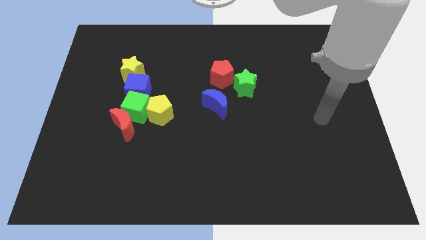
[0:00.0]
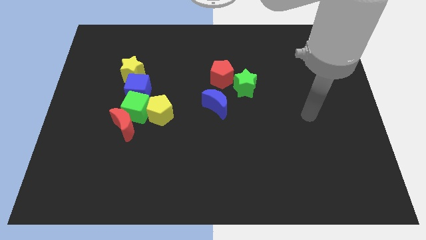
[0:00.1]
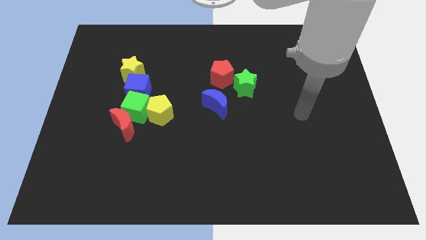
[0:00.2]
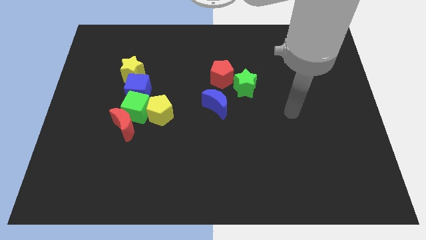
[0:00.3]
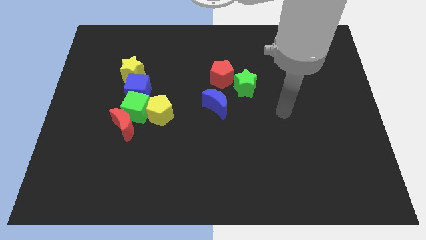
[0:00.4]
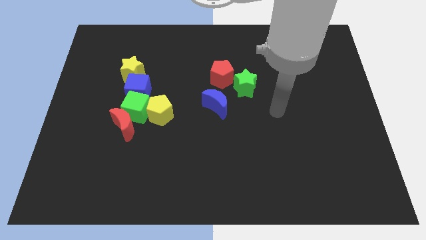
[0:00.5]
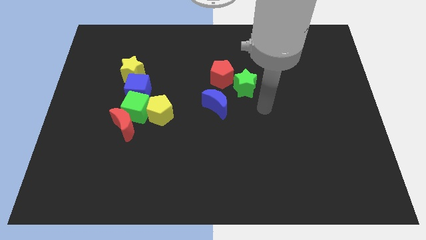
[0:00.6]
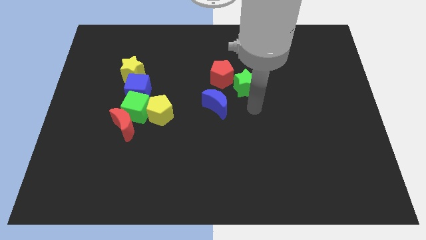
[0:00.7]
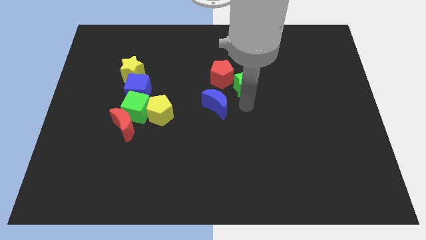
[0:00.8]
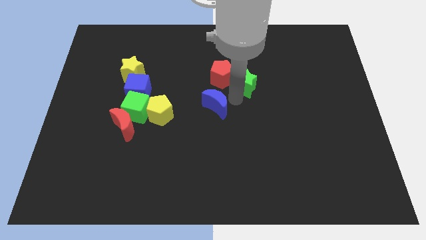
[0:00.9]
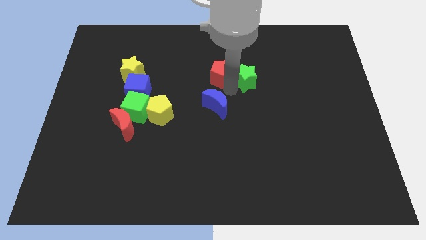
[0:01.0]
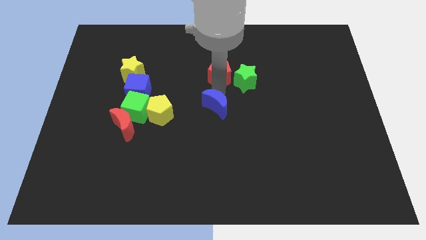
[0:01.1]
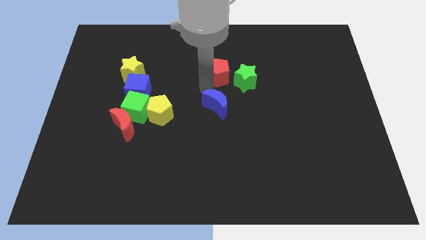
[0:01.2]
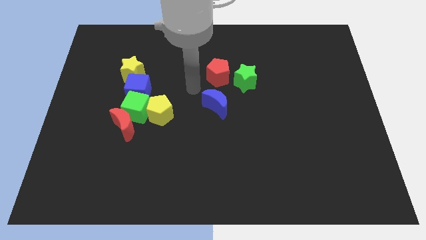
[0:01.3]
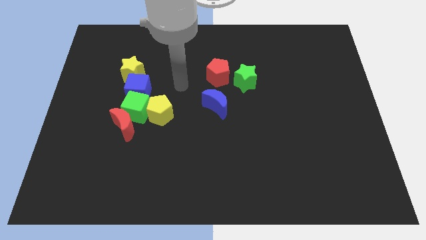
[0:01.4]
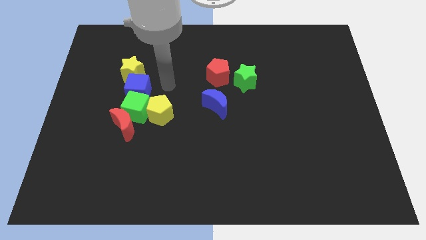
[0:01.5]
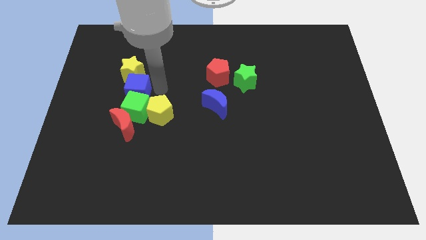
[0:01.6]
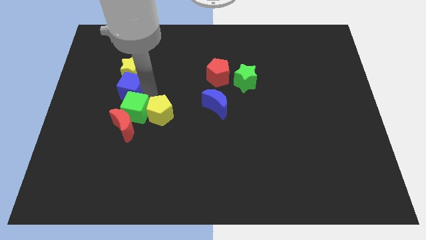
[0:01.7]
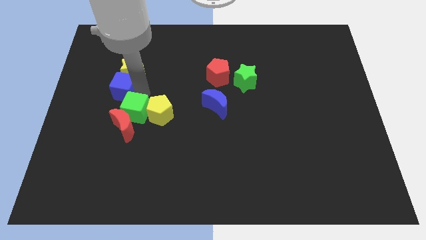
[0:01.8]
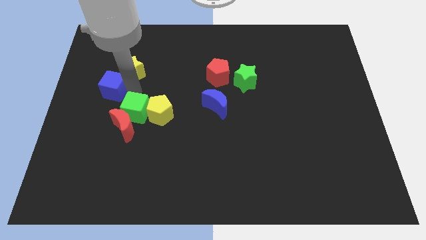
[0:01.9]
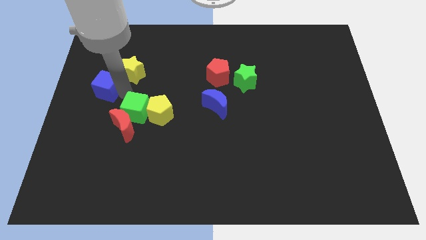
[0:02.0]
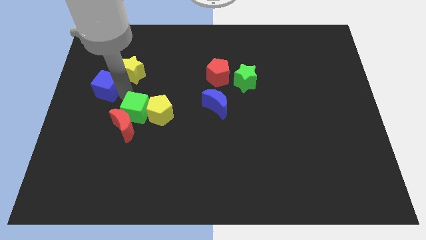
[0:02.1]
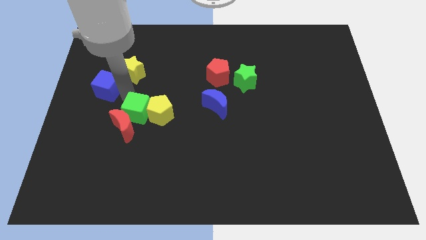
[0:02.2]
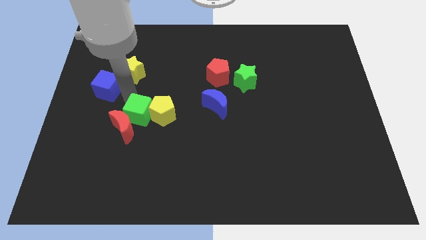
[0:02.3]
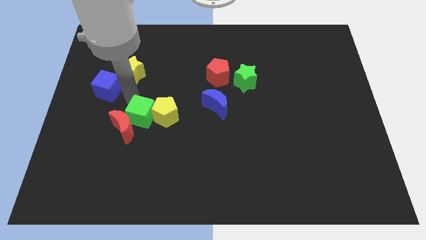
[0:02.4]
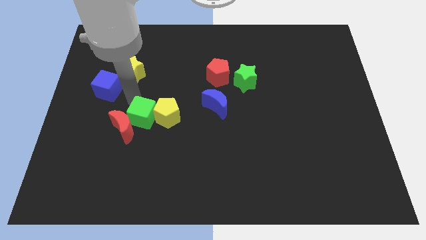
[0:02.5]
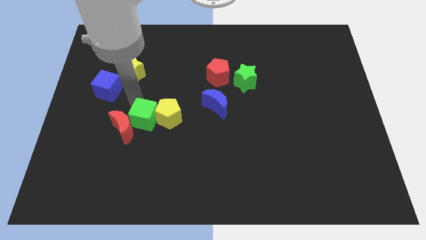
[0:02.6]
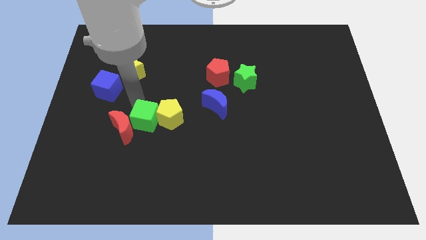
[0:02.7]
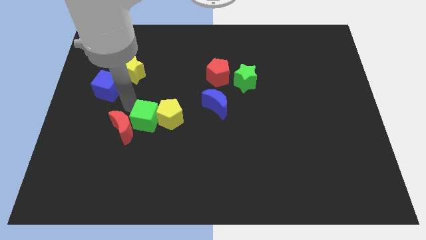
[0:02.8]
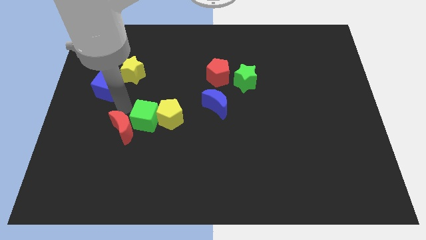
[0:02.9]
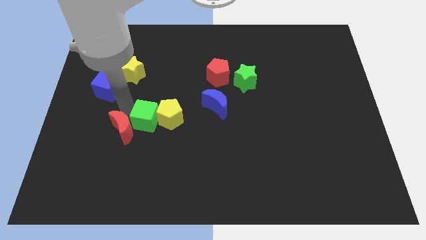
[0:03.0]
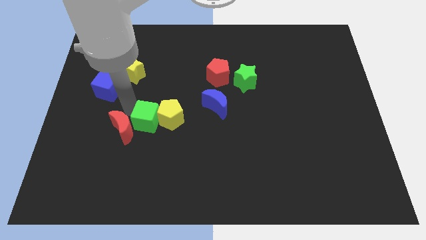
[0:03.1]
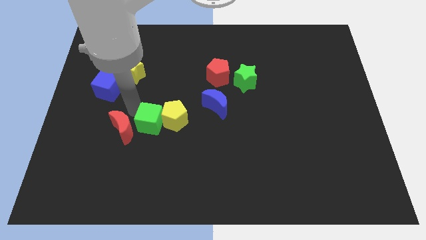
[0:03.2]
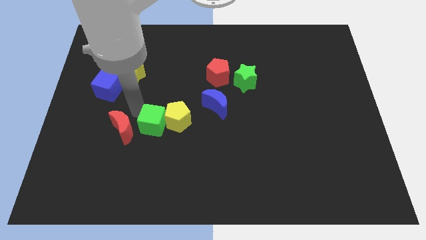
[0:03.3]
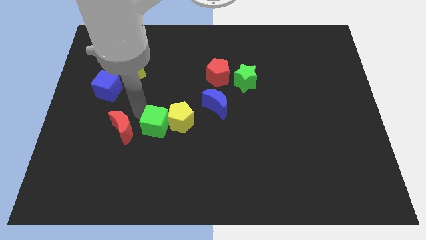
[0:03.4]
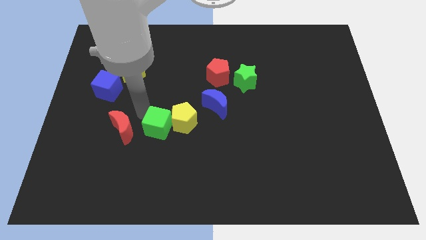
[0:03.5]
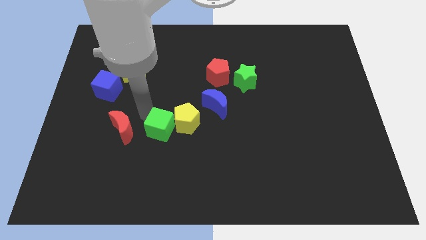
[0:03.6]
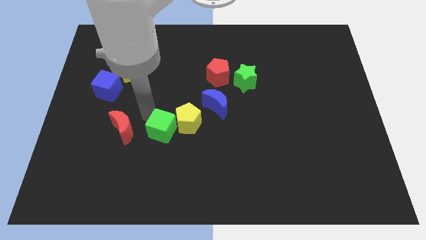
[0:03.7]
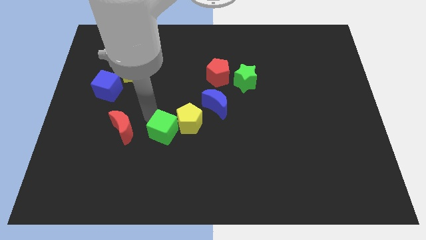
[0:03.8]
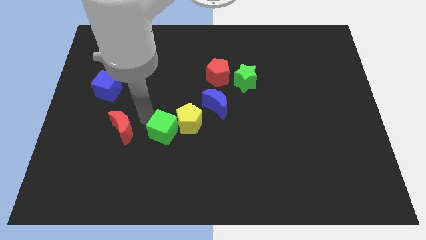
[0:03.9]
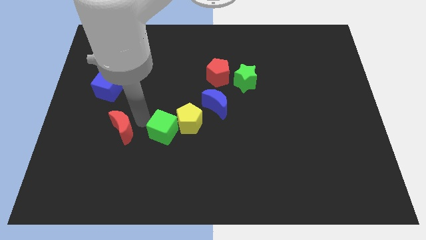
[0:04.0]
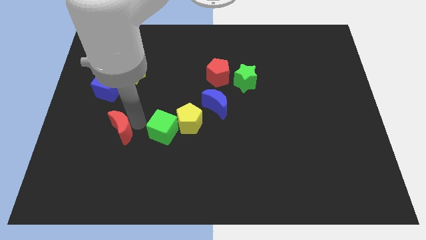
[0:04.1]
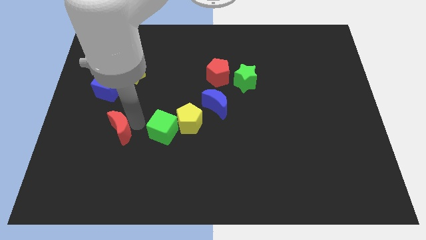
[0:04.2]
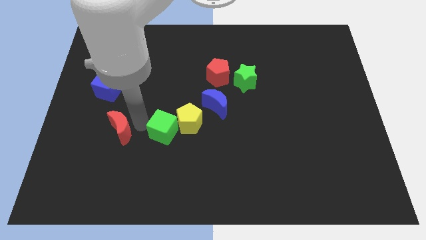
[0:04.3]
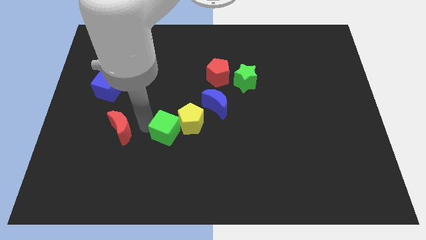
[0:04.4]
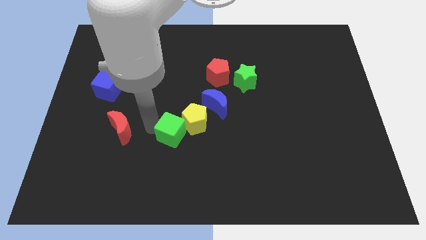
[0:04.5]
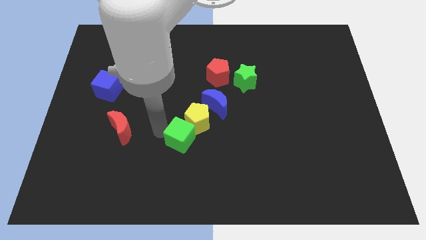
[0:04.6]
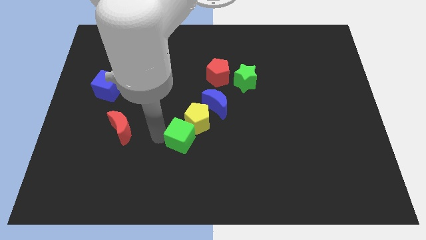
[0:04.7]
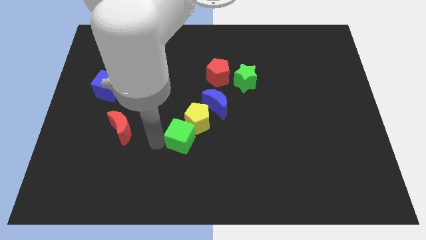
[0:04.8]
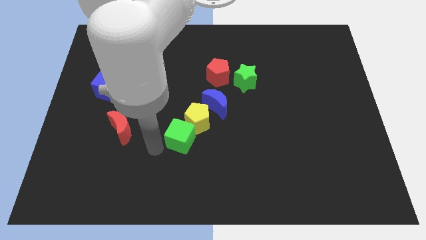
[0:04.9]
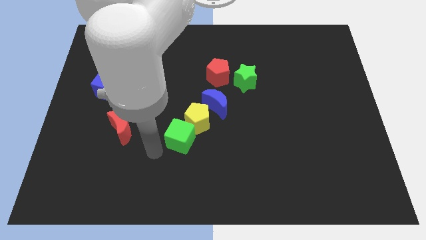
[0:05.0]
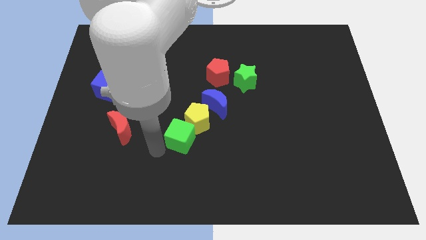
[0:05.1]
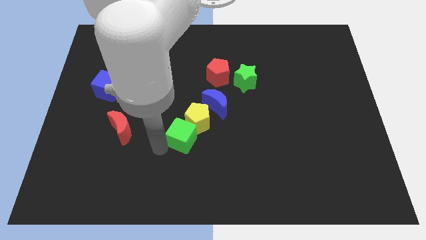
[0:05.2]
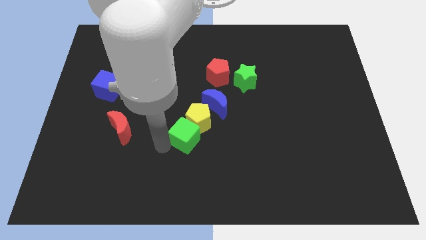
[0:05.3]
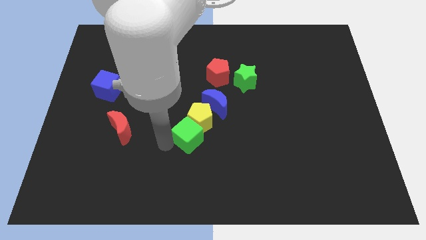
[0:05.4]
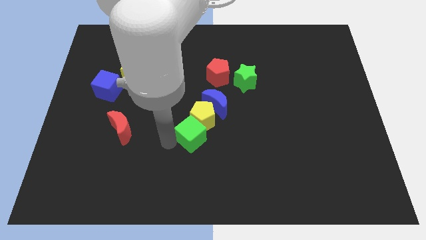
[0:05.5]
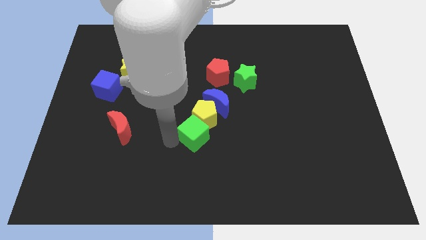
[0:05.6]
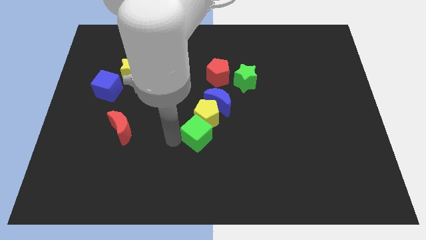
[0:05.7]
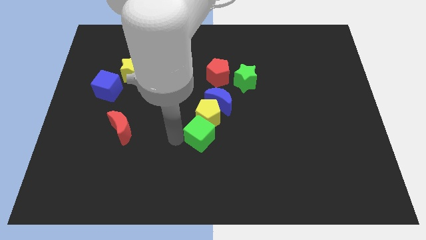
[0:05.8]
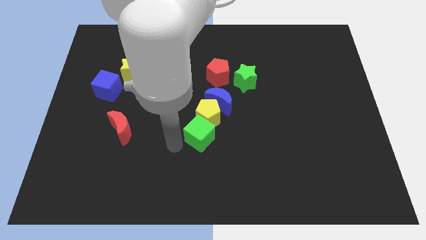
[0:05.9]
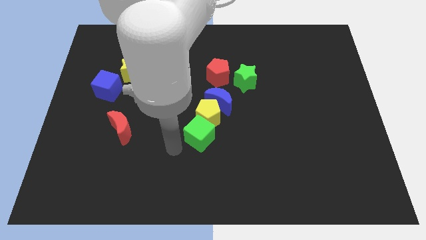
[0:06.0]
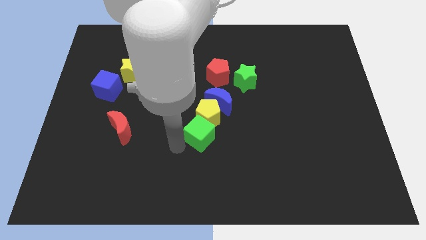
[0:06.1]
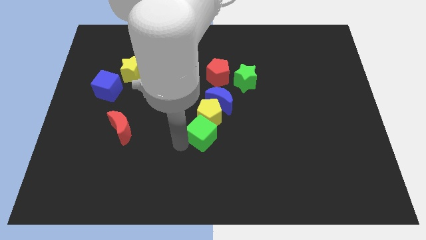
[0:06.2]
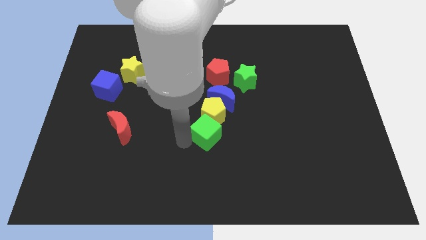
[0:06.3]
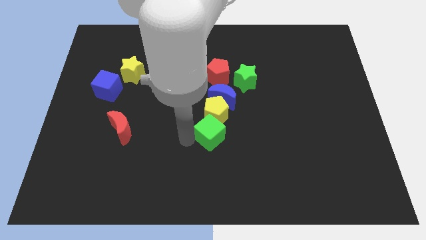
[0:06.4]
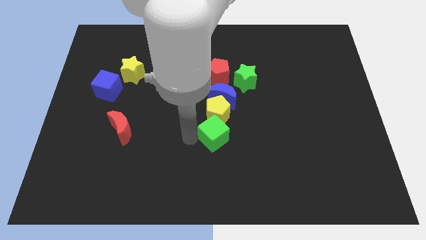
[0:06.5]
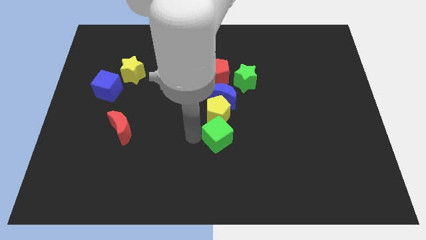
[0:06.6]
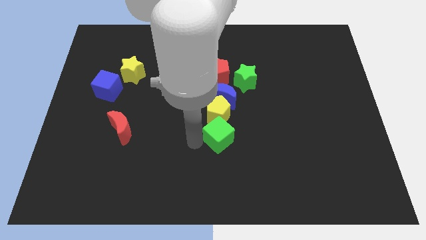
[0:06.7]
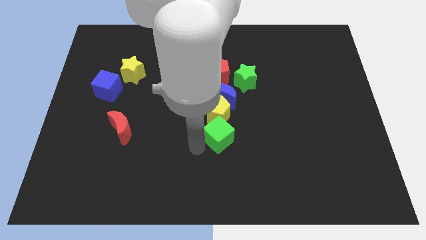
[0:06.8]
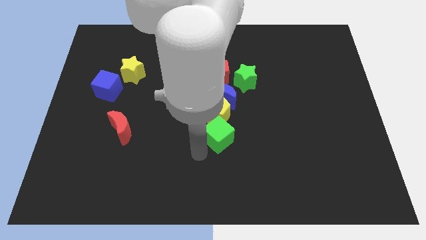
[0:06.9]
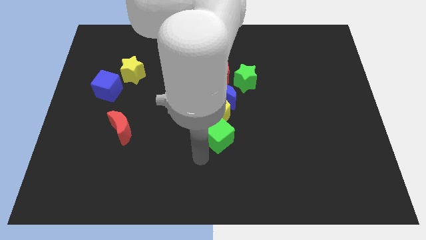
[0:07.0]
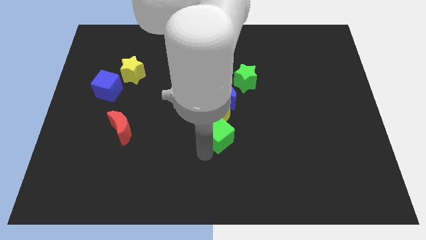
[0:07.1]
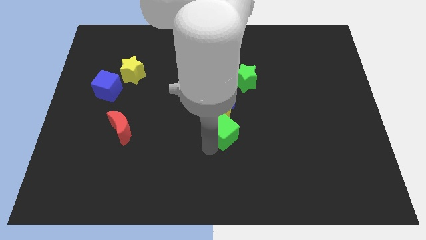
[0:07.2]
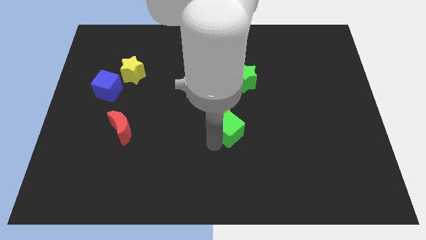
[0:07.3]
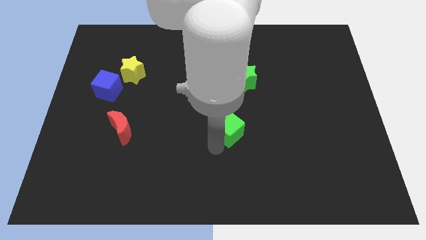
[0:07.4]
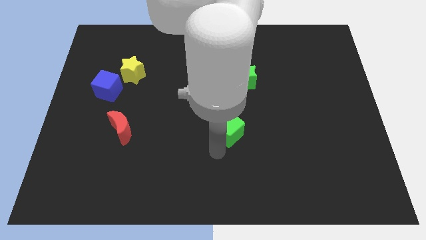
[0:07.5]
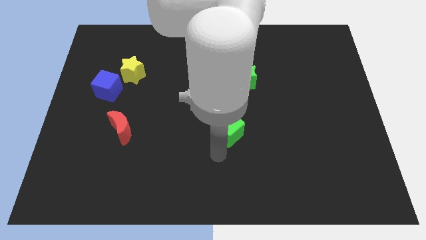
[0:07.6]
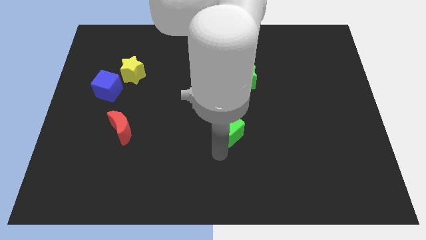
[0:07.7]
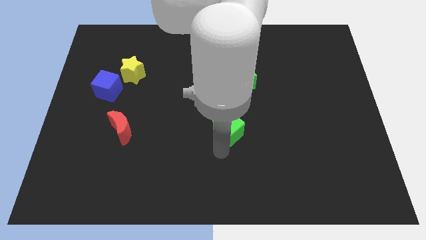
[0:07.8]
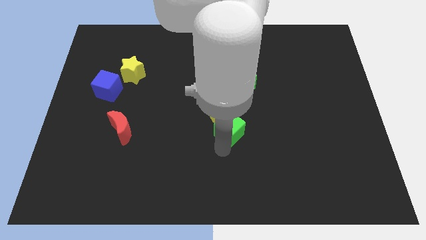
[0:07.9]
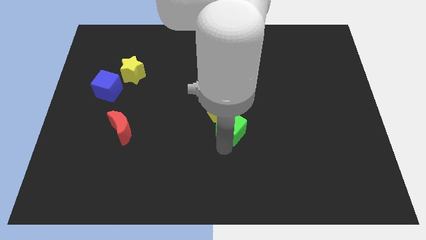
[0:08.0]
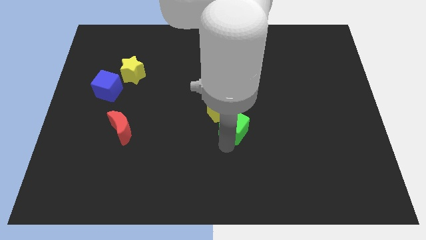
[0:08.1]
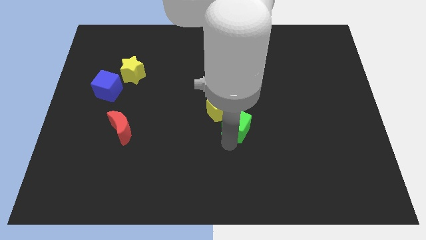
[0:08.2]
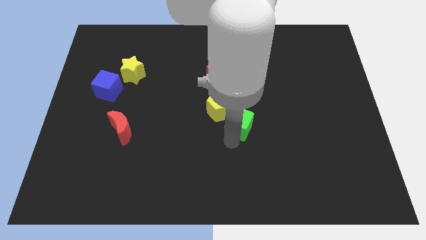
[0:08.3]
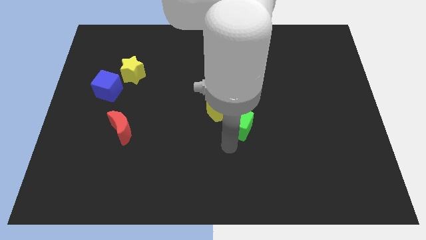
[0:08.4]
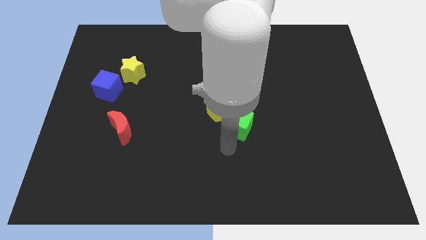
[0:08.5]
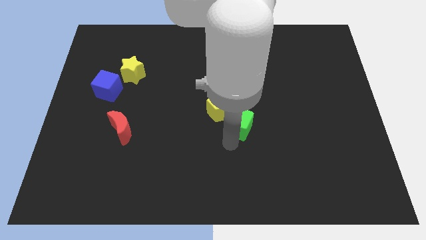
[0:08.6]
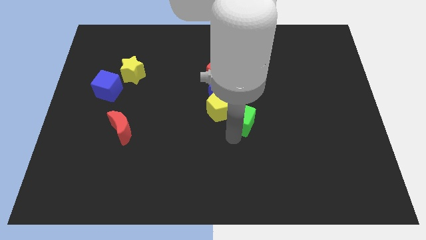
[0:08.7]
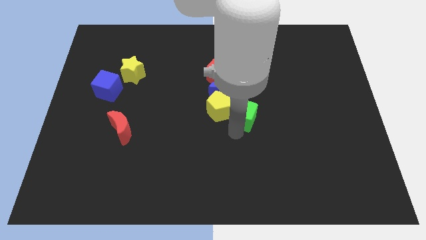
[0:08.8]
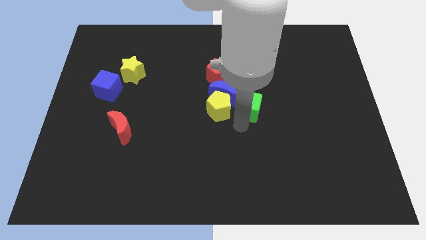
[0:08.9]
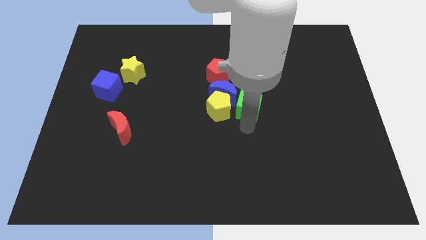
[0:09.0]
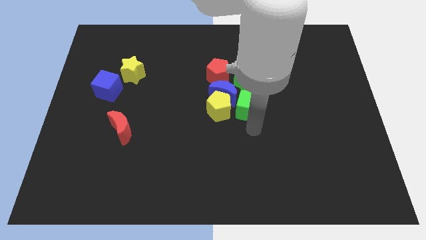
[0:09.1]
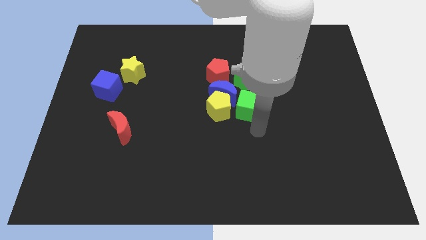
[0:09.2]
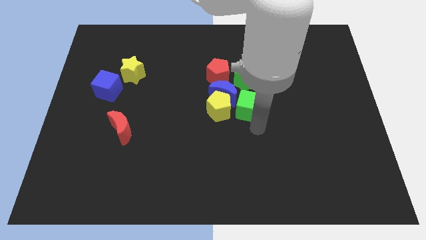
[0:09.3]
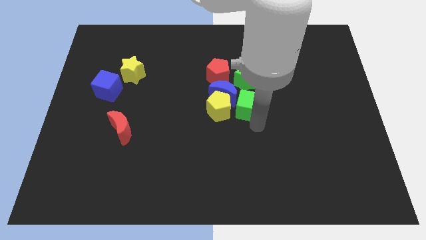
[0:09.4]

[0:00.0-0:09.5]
slide the green cube diagonally down and to the right of the red pentagon
